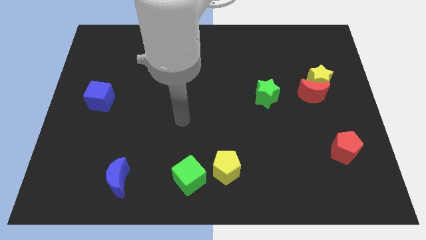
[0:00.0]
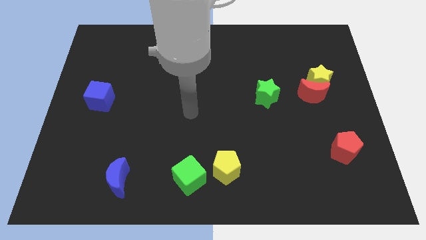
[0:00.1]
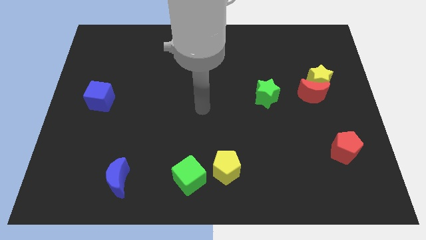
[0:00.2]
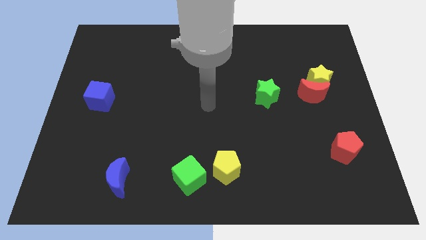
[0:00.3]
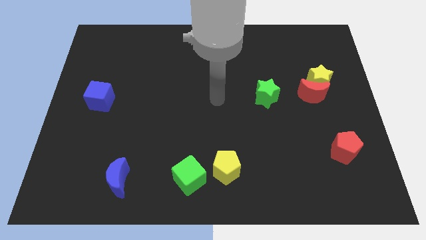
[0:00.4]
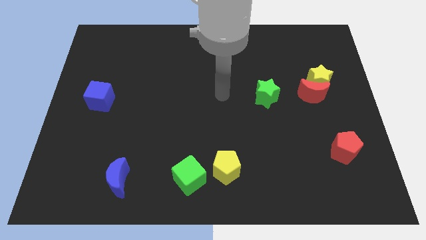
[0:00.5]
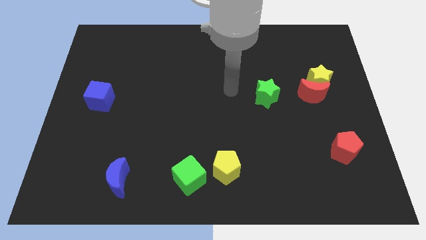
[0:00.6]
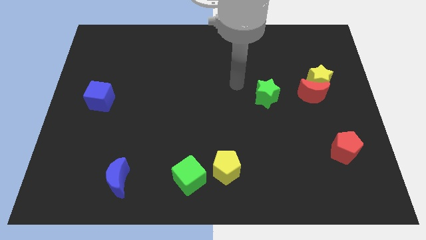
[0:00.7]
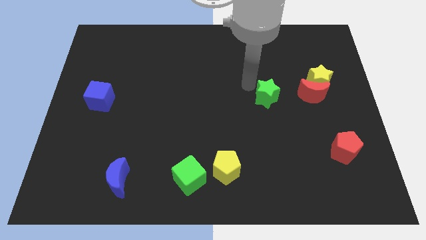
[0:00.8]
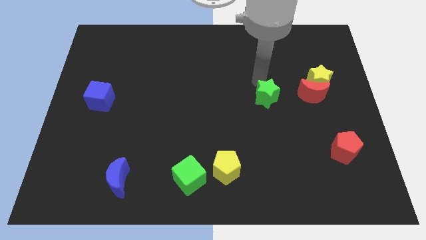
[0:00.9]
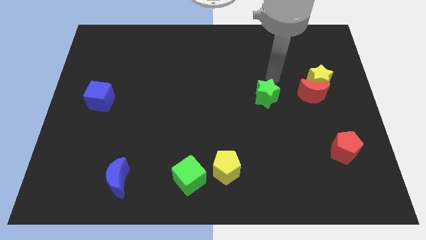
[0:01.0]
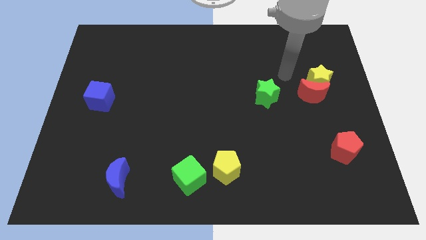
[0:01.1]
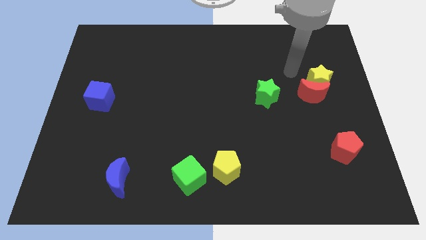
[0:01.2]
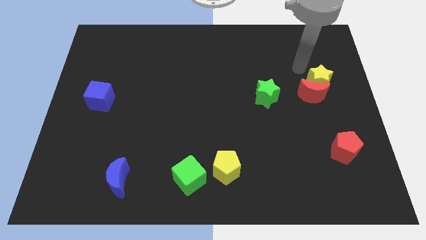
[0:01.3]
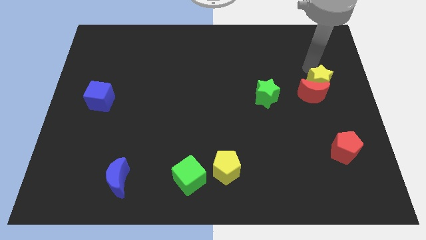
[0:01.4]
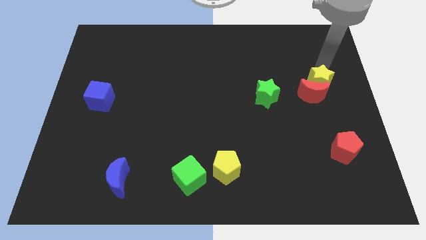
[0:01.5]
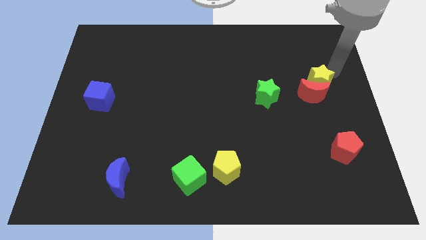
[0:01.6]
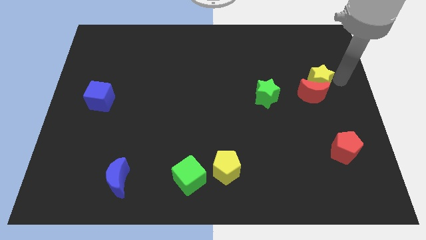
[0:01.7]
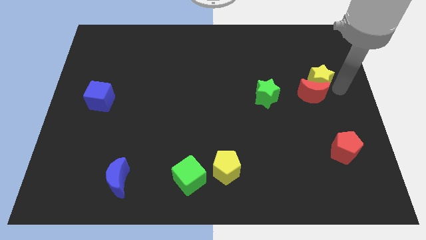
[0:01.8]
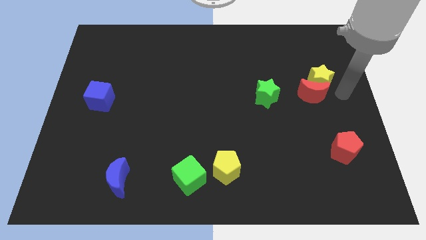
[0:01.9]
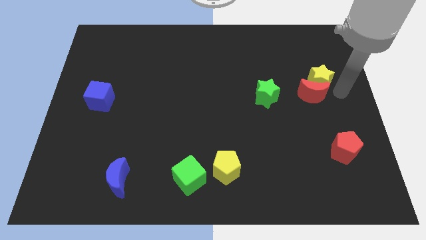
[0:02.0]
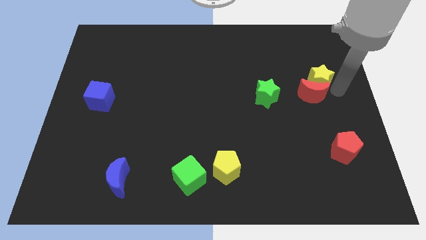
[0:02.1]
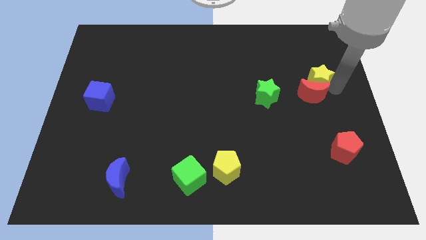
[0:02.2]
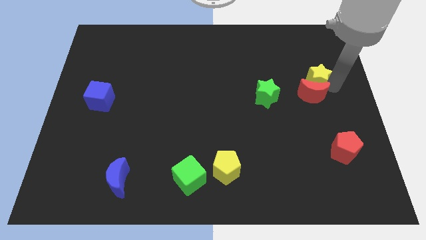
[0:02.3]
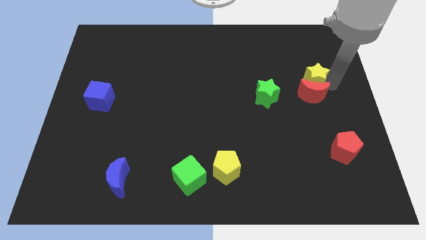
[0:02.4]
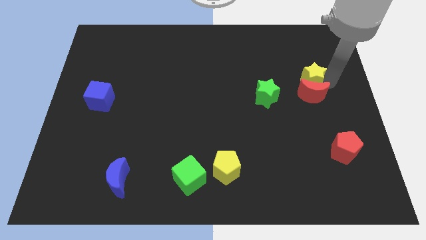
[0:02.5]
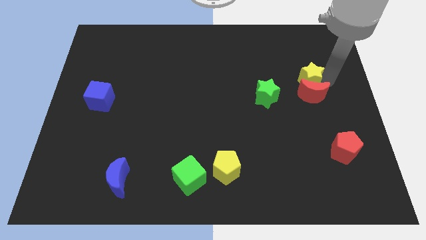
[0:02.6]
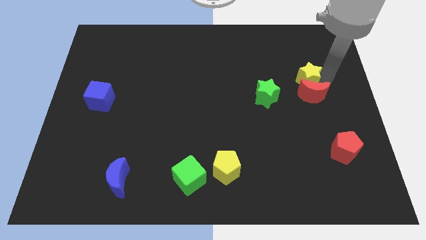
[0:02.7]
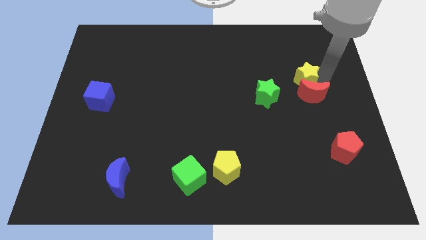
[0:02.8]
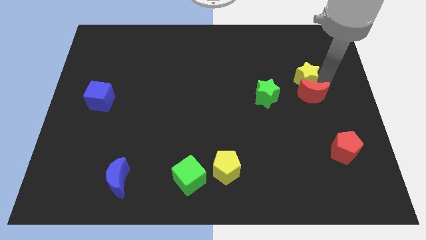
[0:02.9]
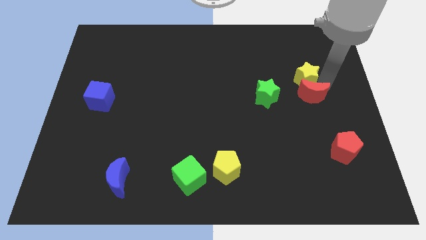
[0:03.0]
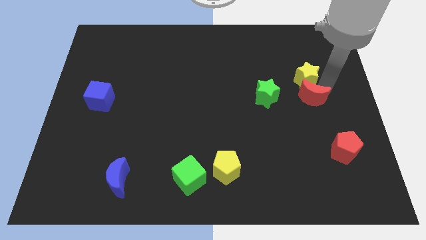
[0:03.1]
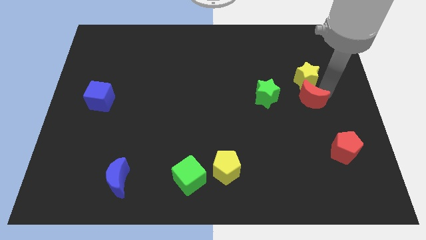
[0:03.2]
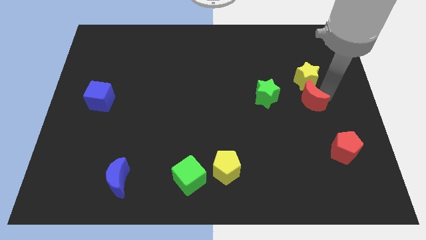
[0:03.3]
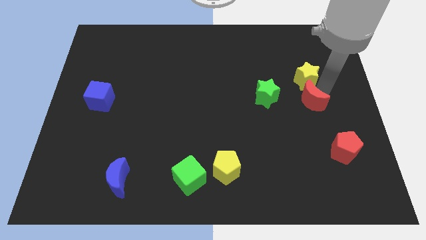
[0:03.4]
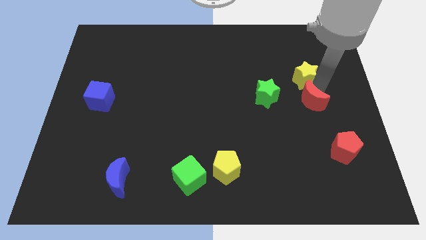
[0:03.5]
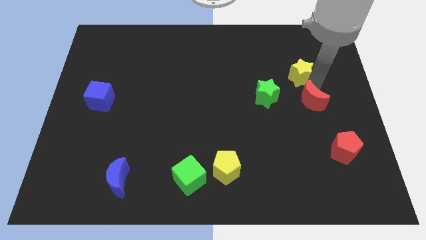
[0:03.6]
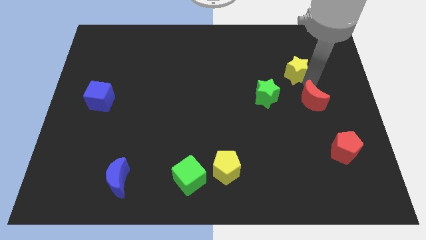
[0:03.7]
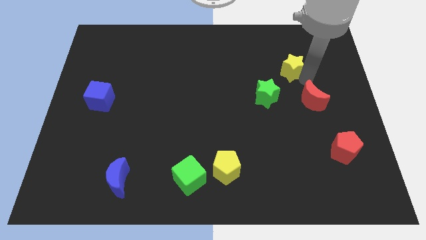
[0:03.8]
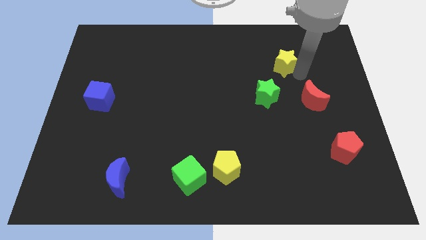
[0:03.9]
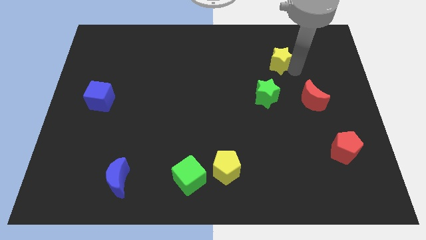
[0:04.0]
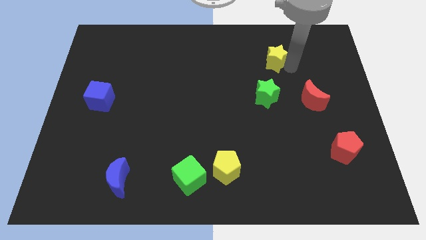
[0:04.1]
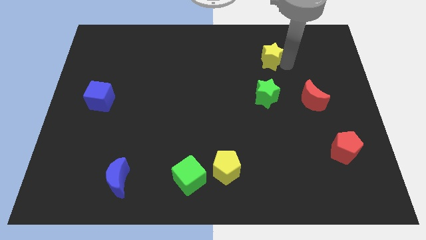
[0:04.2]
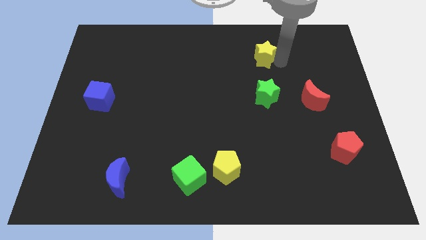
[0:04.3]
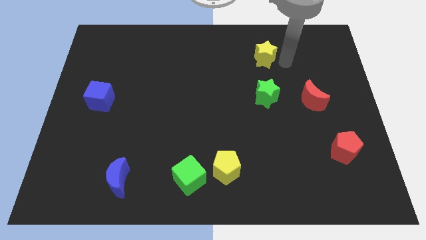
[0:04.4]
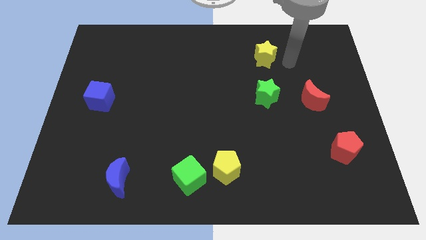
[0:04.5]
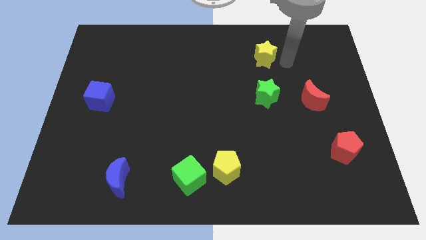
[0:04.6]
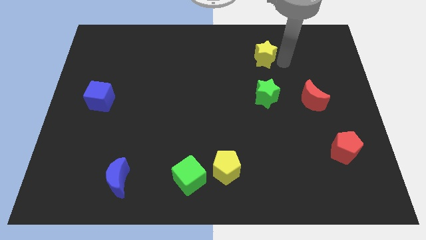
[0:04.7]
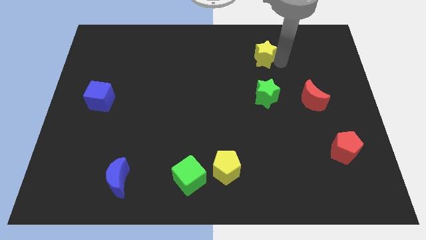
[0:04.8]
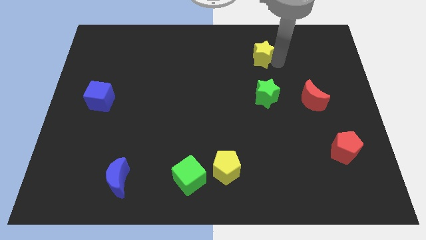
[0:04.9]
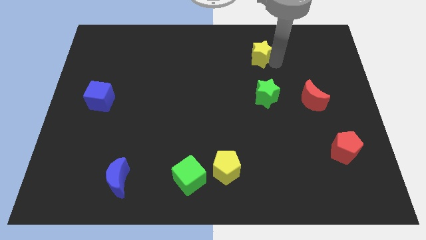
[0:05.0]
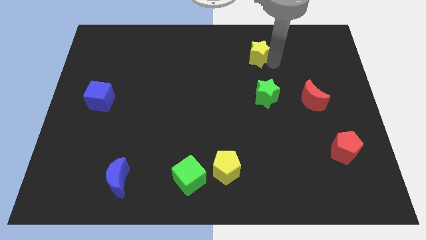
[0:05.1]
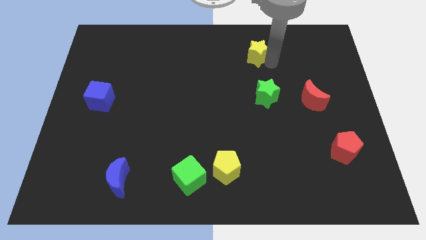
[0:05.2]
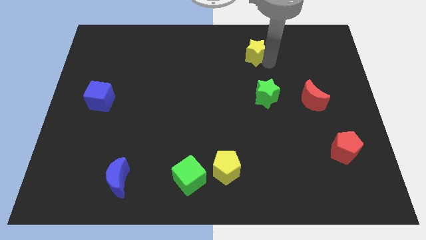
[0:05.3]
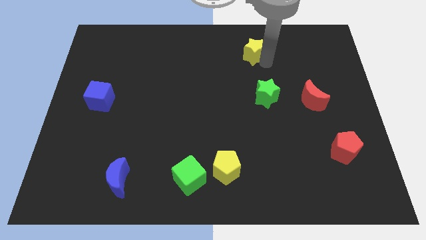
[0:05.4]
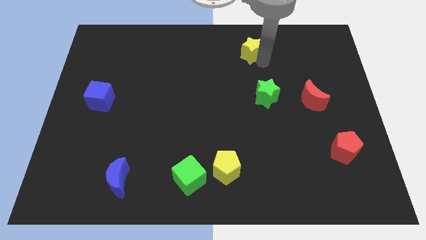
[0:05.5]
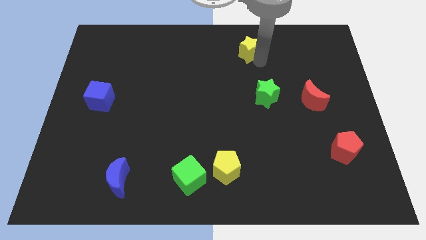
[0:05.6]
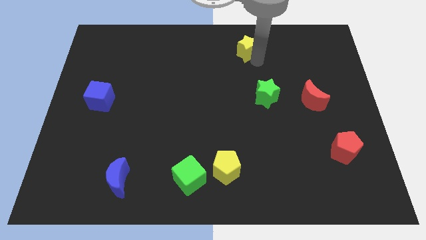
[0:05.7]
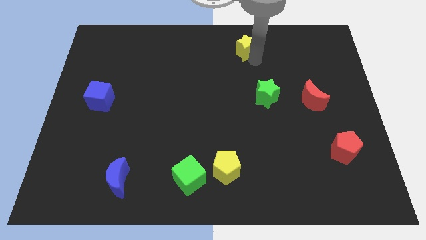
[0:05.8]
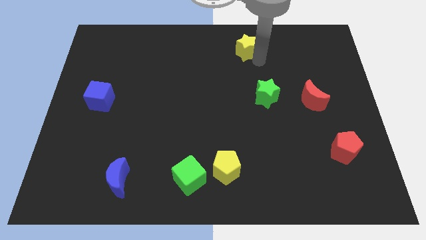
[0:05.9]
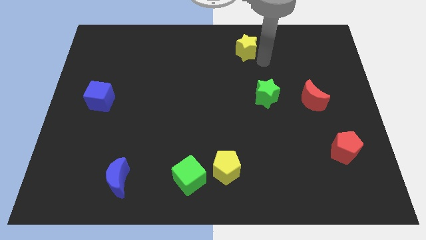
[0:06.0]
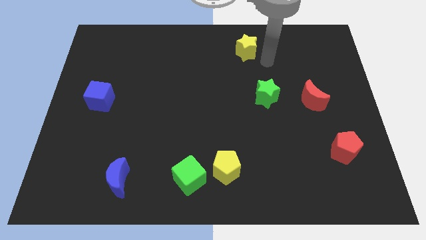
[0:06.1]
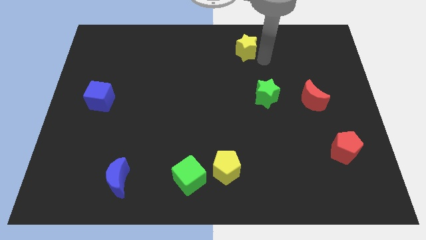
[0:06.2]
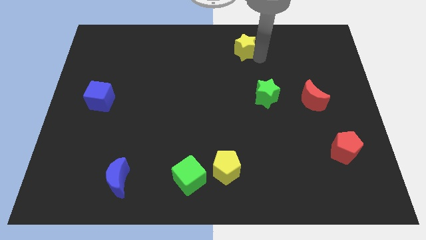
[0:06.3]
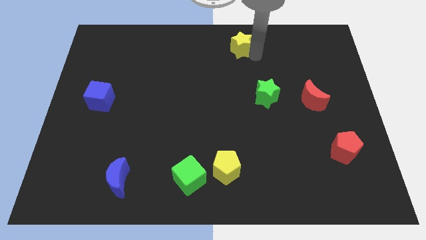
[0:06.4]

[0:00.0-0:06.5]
slide the yellow star to the top side

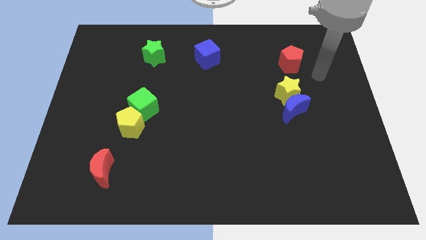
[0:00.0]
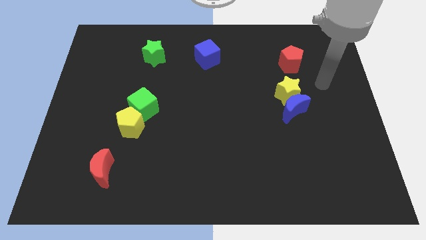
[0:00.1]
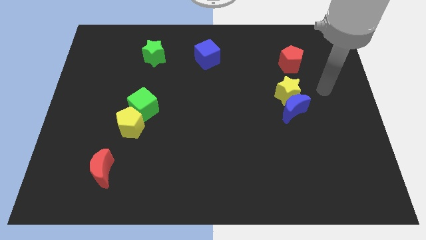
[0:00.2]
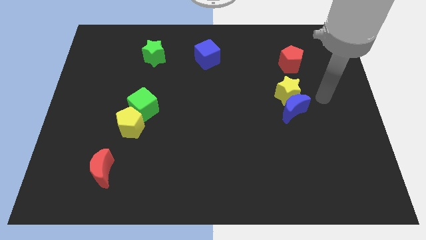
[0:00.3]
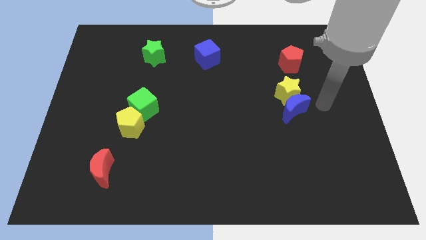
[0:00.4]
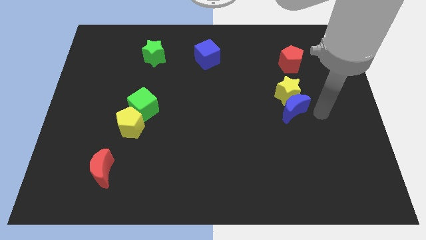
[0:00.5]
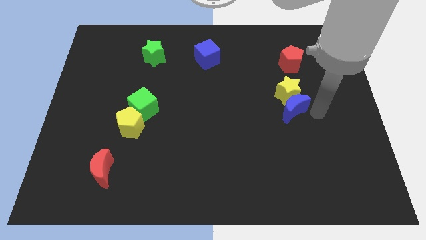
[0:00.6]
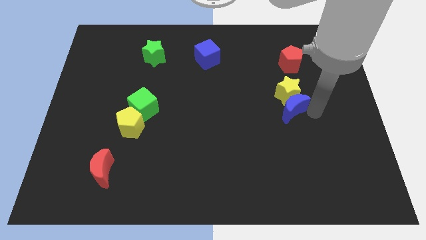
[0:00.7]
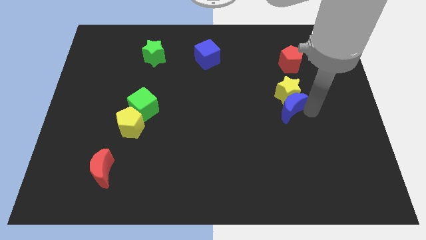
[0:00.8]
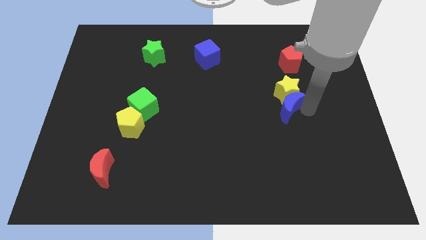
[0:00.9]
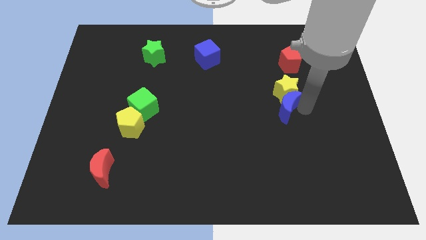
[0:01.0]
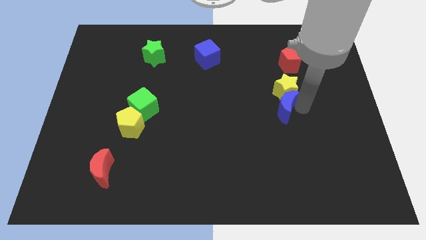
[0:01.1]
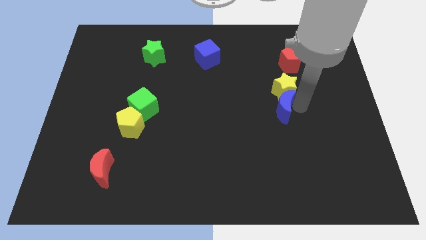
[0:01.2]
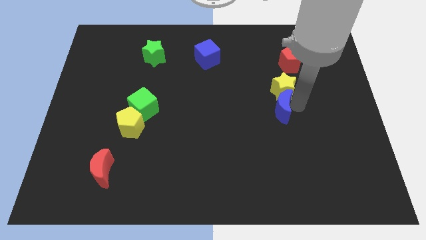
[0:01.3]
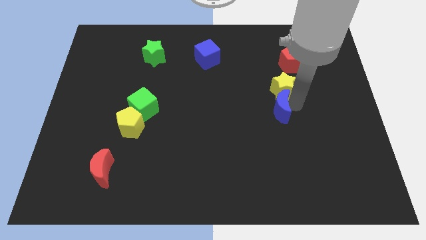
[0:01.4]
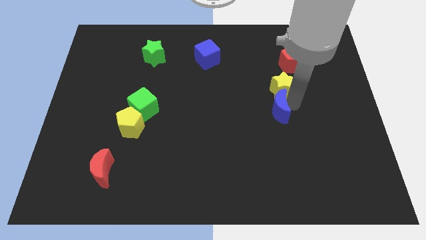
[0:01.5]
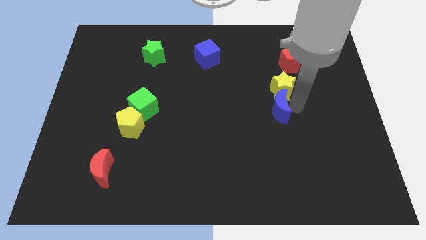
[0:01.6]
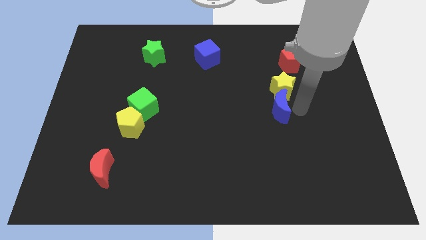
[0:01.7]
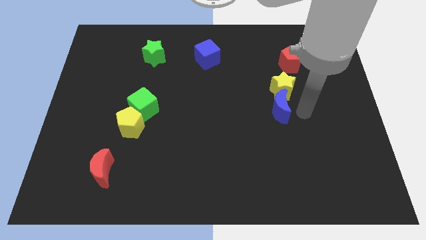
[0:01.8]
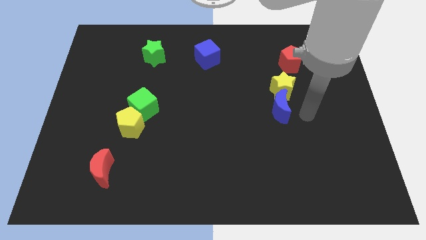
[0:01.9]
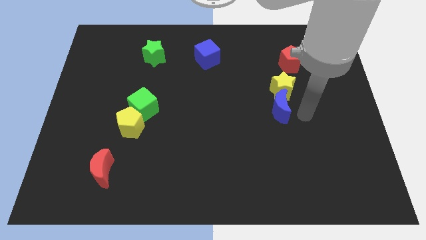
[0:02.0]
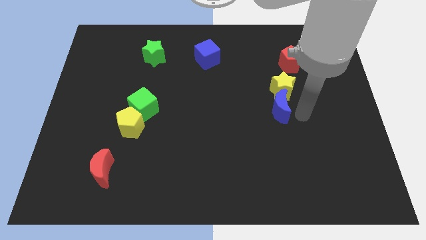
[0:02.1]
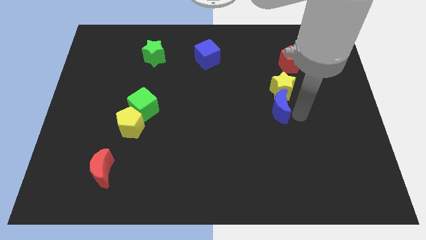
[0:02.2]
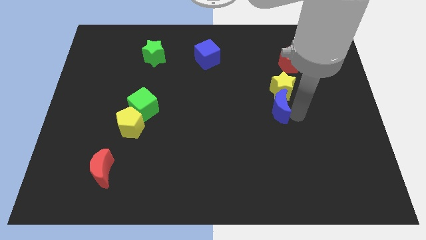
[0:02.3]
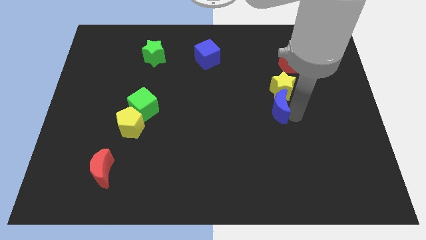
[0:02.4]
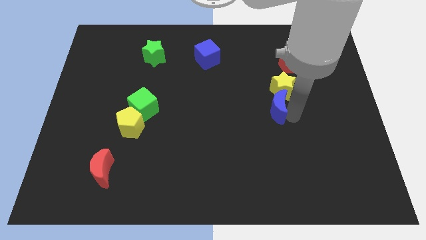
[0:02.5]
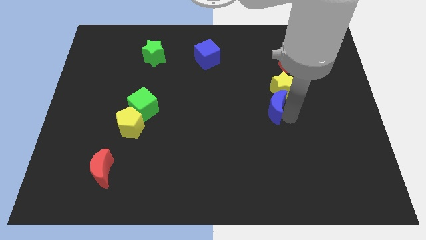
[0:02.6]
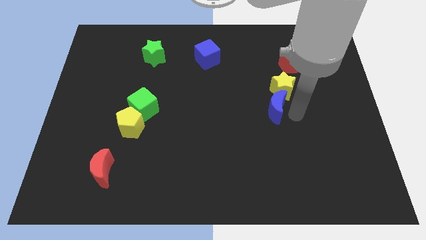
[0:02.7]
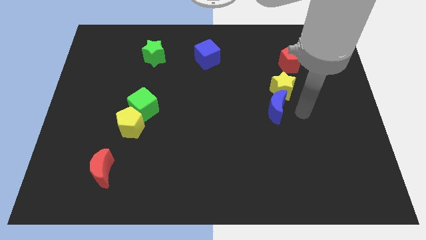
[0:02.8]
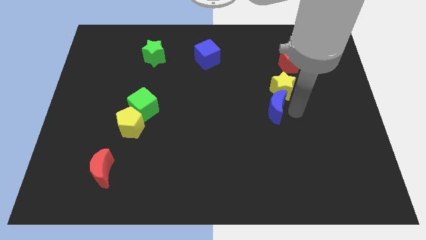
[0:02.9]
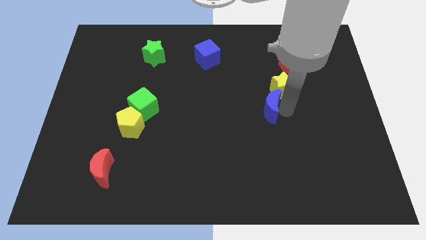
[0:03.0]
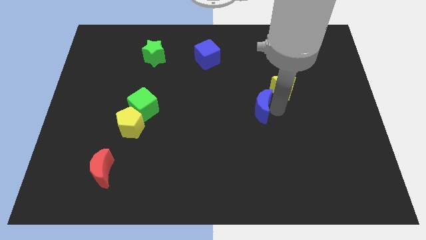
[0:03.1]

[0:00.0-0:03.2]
put the blue moon to the middle
